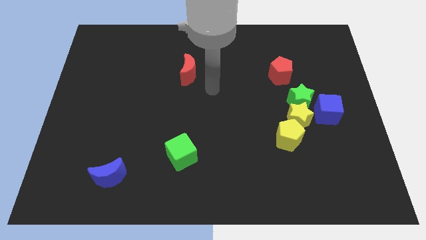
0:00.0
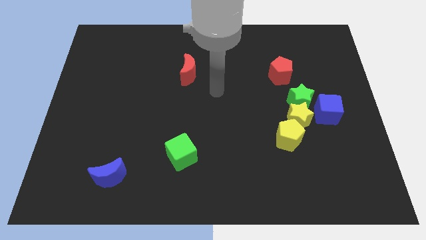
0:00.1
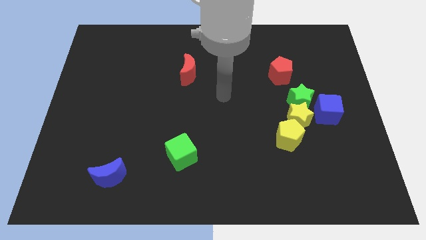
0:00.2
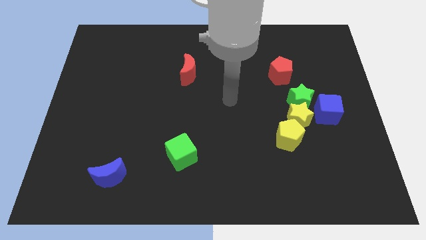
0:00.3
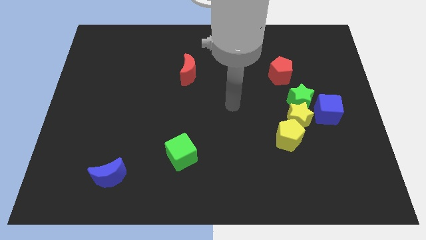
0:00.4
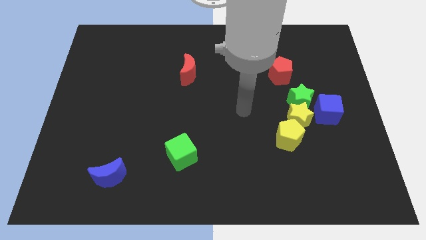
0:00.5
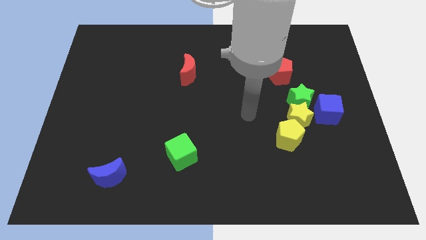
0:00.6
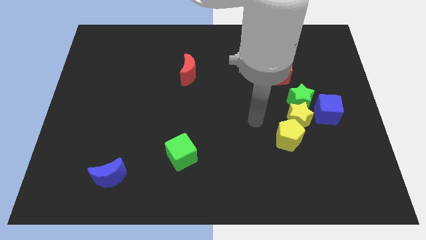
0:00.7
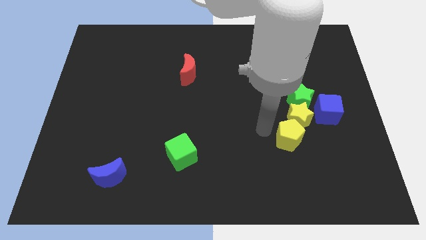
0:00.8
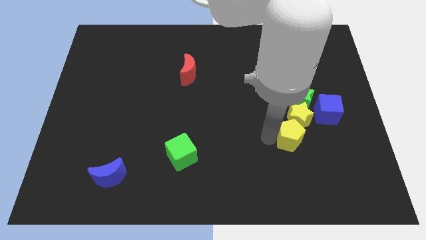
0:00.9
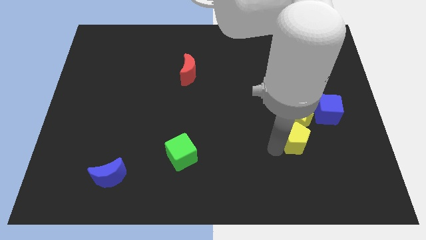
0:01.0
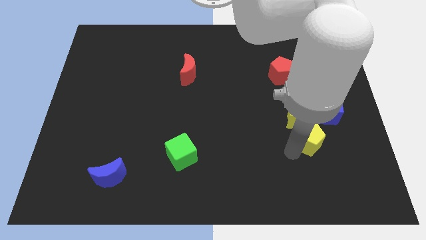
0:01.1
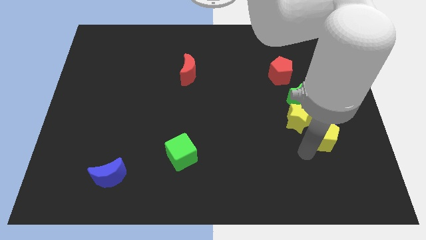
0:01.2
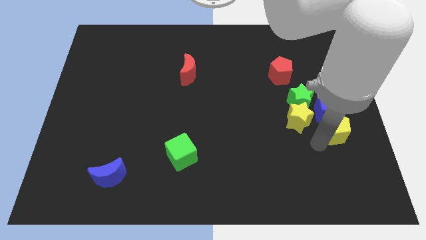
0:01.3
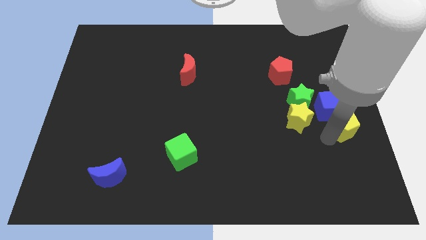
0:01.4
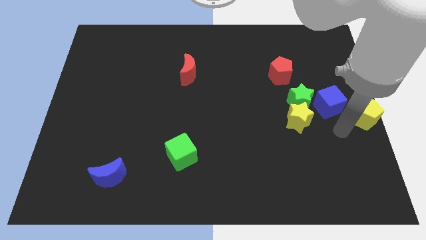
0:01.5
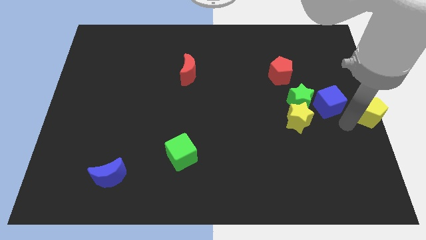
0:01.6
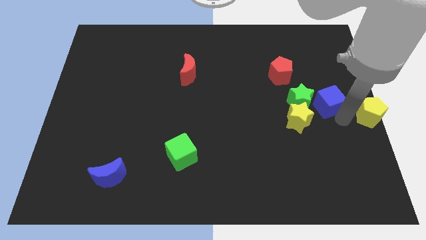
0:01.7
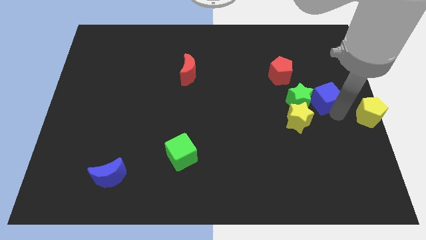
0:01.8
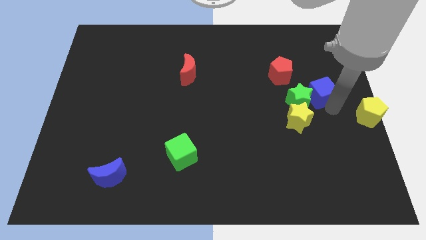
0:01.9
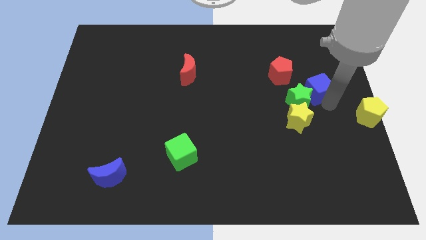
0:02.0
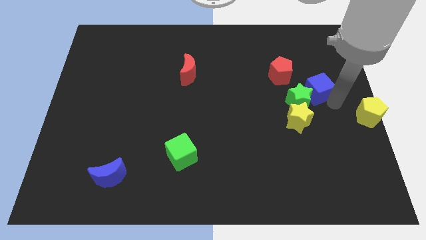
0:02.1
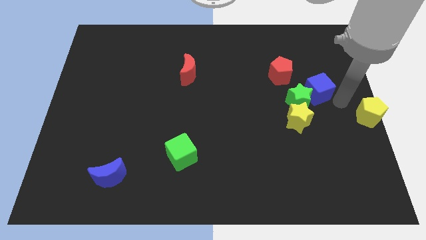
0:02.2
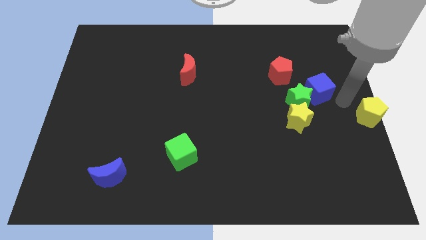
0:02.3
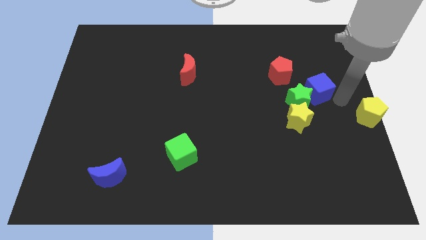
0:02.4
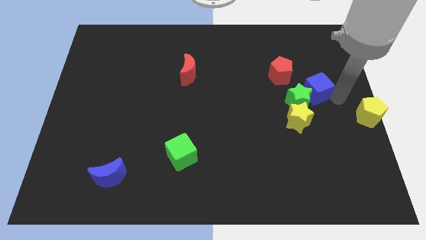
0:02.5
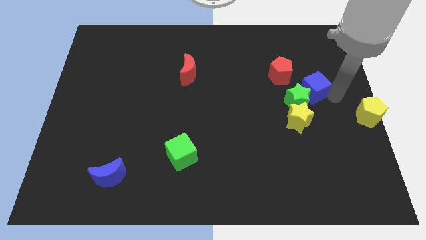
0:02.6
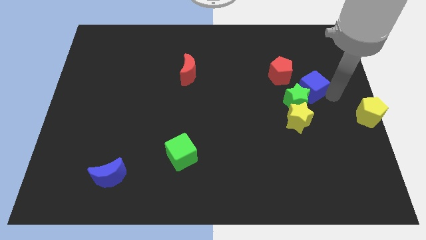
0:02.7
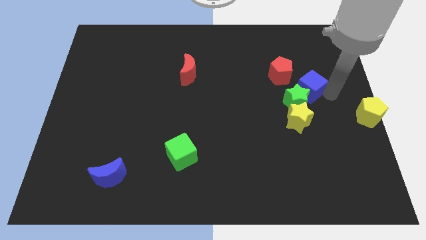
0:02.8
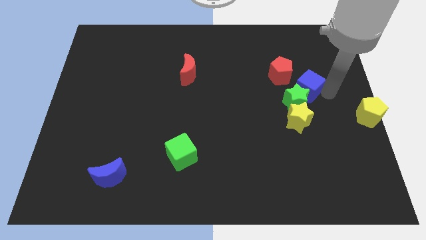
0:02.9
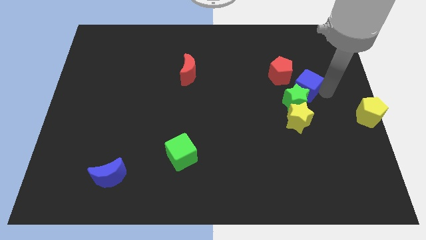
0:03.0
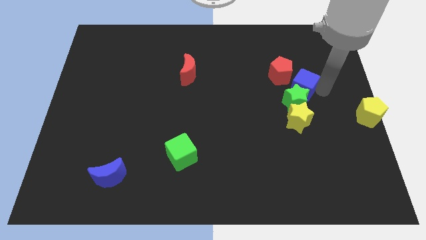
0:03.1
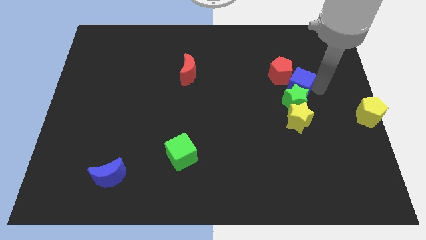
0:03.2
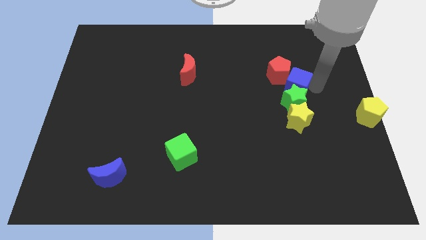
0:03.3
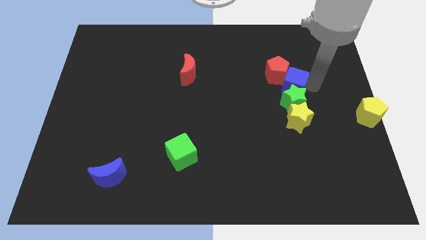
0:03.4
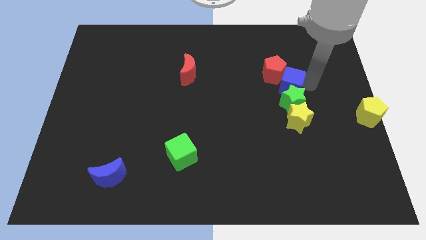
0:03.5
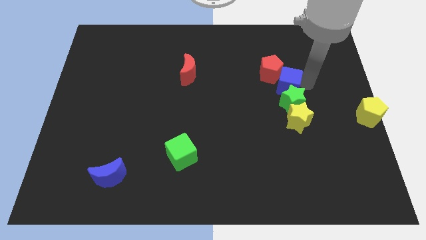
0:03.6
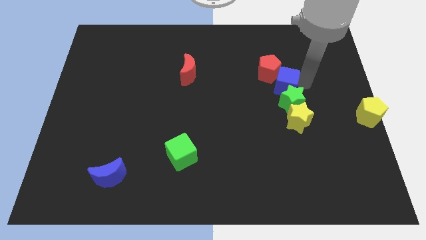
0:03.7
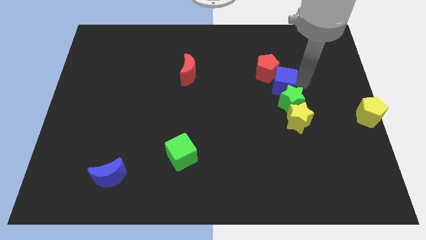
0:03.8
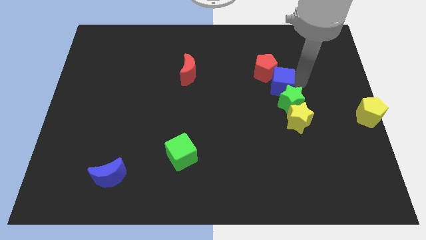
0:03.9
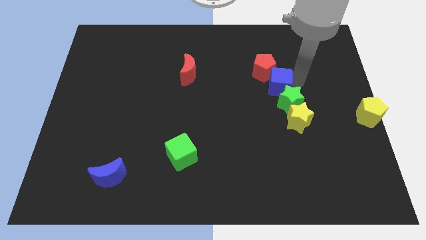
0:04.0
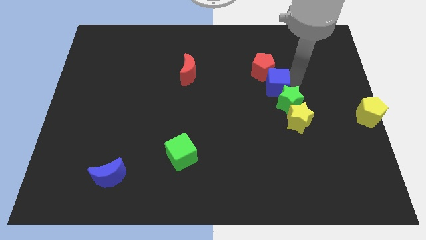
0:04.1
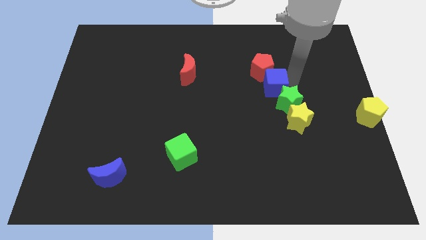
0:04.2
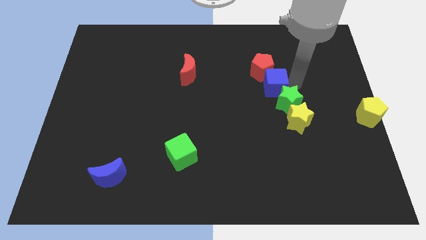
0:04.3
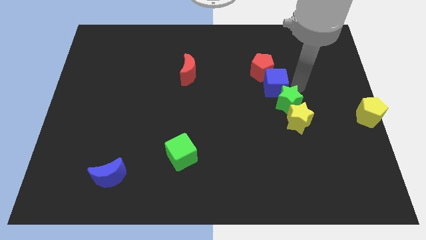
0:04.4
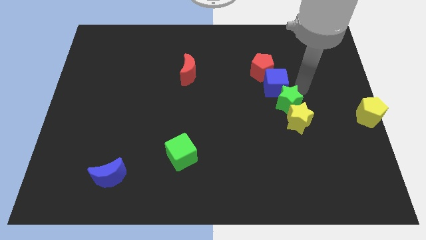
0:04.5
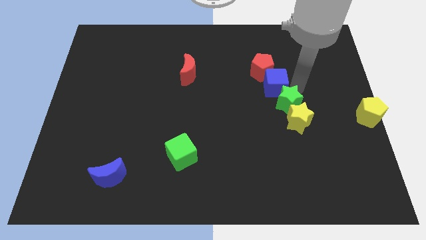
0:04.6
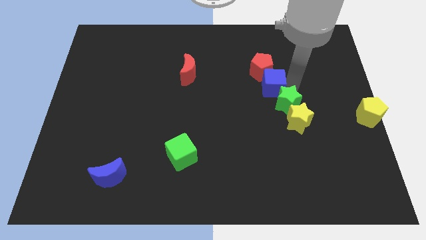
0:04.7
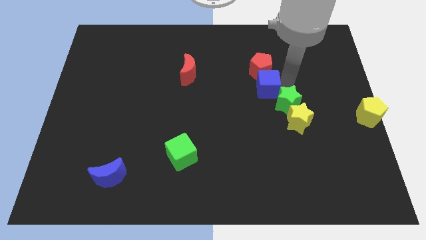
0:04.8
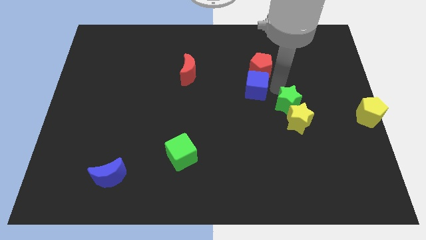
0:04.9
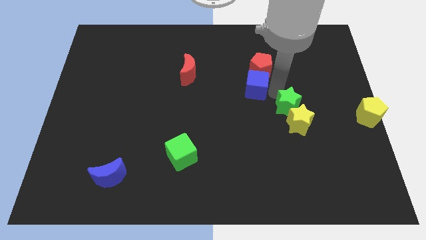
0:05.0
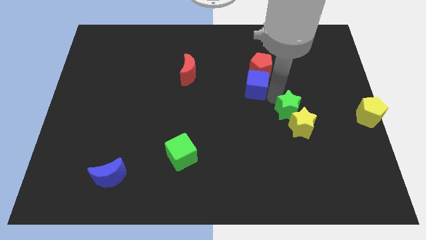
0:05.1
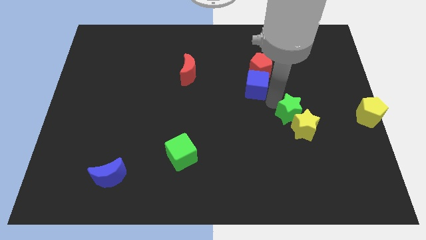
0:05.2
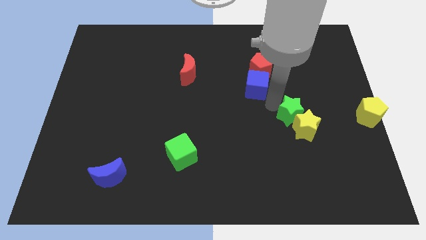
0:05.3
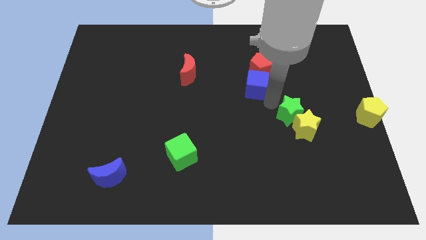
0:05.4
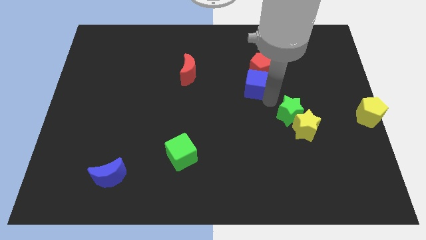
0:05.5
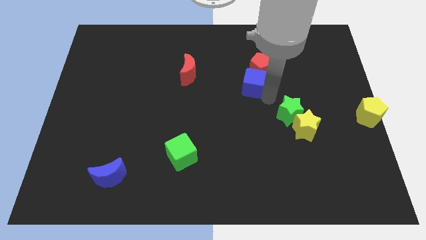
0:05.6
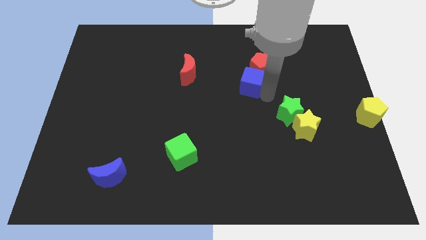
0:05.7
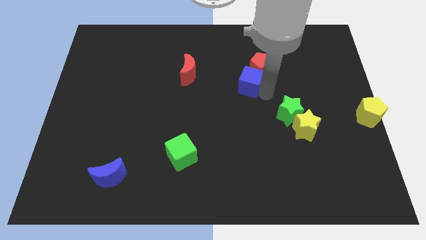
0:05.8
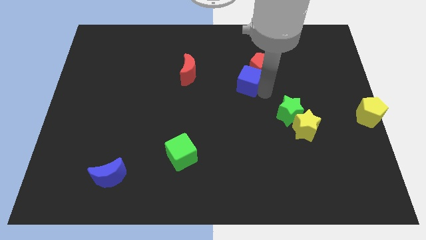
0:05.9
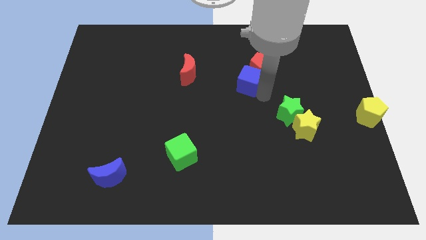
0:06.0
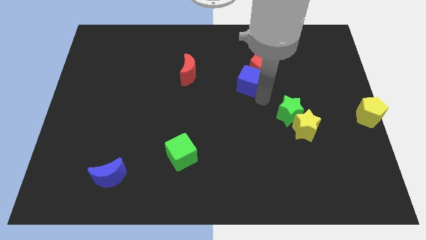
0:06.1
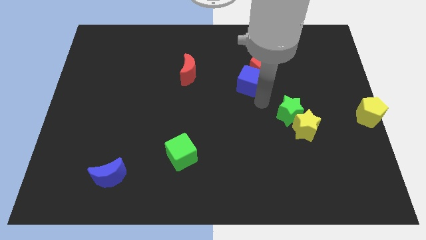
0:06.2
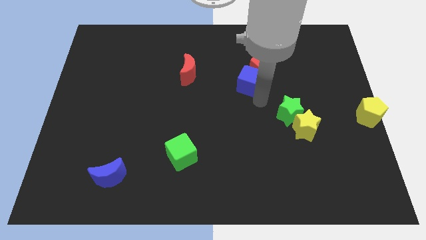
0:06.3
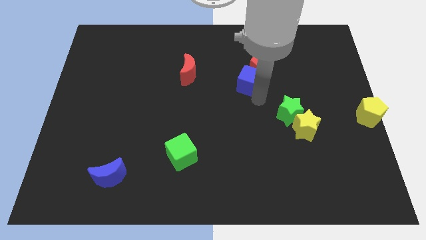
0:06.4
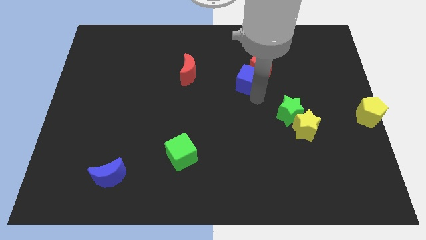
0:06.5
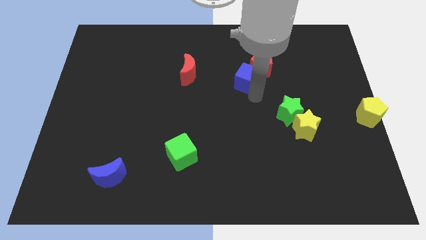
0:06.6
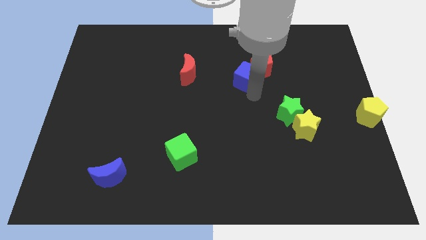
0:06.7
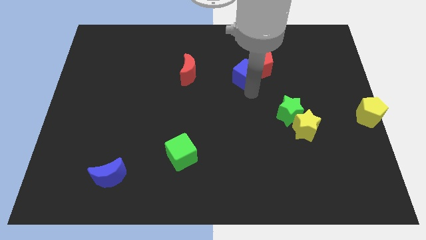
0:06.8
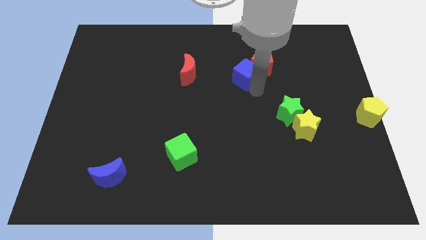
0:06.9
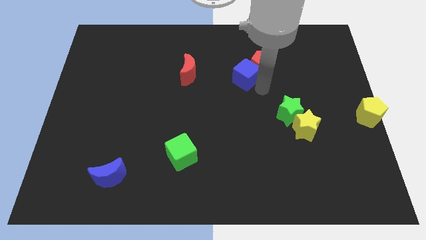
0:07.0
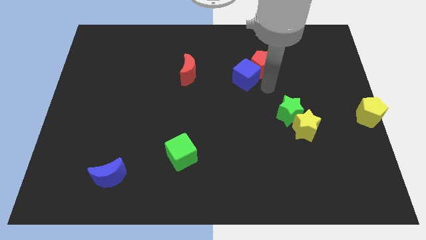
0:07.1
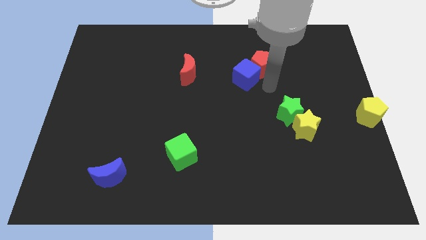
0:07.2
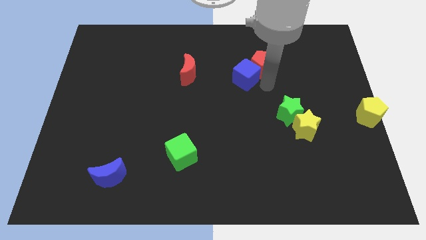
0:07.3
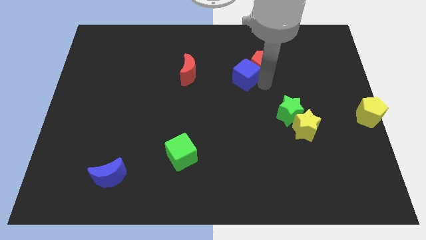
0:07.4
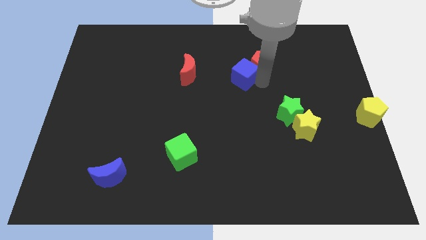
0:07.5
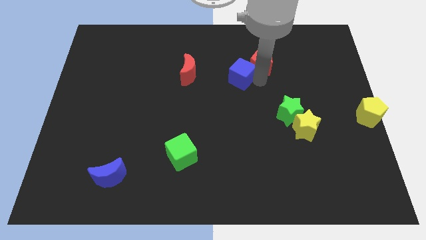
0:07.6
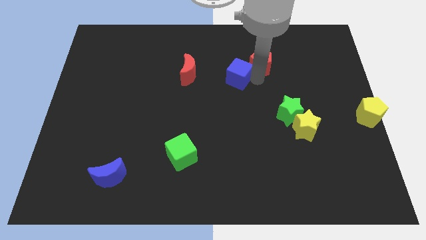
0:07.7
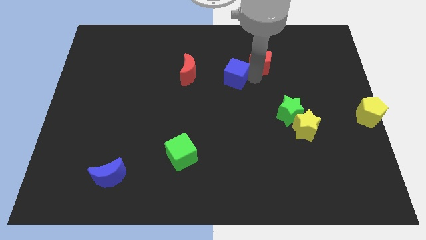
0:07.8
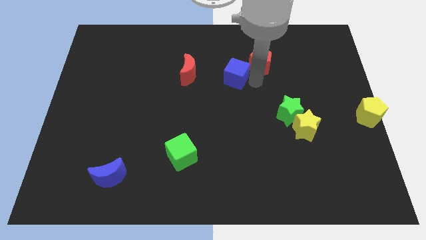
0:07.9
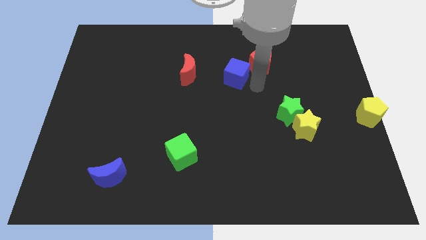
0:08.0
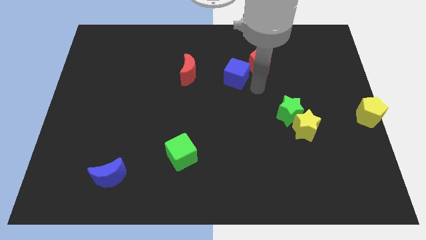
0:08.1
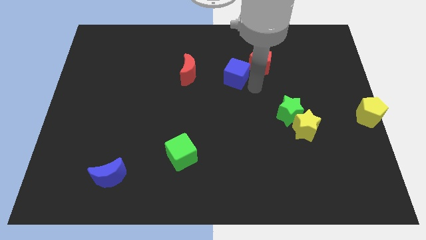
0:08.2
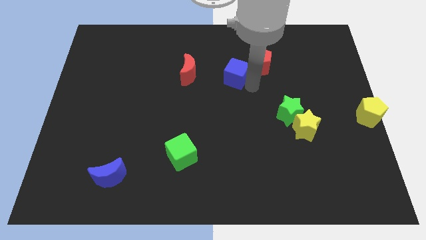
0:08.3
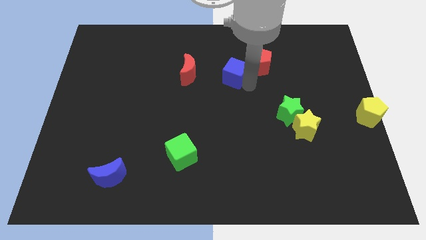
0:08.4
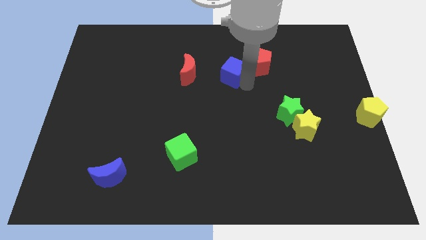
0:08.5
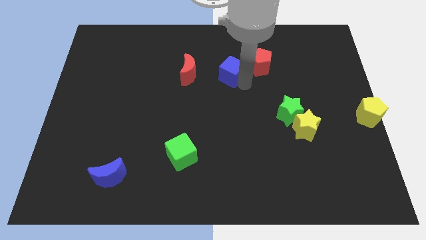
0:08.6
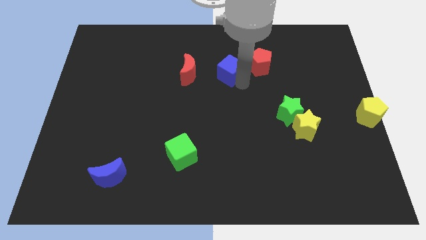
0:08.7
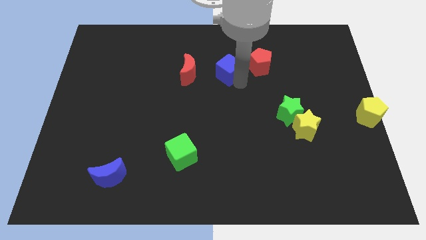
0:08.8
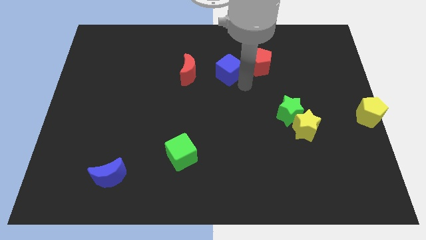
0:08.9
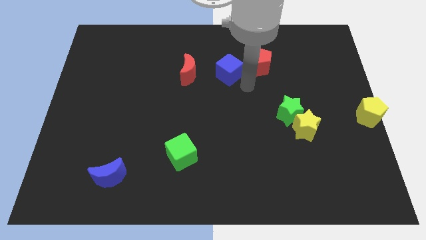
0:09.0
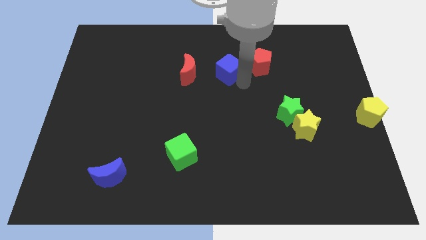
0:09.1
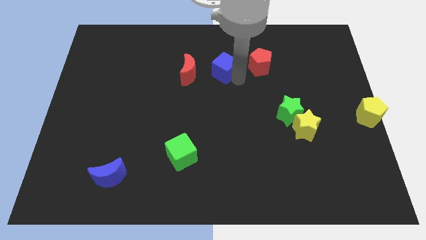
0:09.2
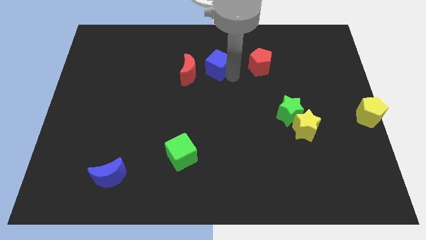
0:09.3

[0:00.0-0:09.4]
slide the blue cube diagonally up and to the right of the red moon
